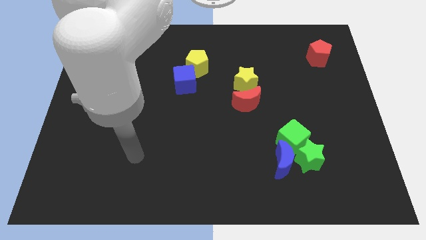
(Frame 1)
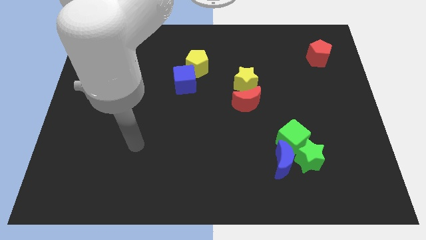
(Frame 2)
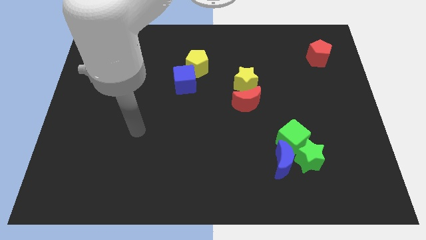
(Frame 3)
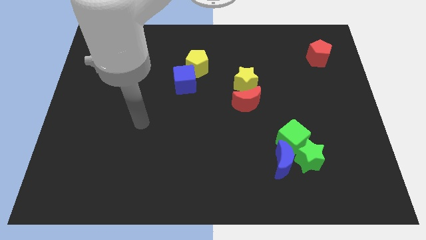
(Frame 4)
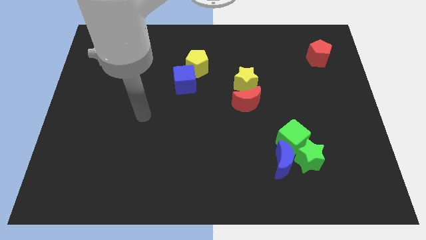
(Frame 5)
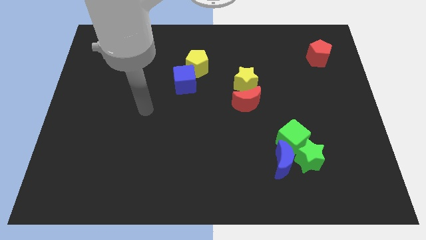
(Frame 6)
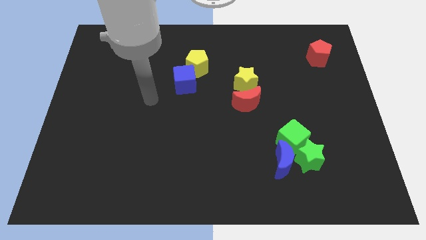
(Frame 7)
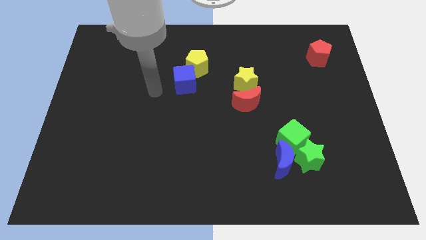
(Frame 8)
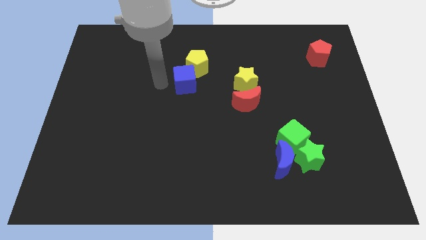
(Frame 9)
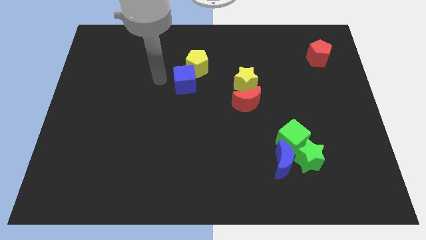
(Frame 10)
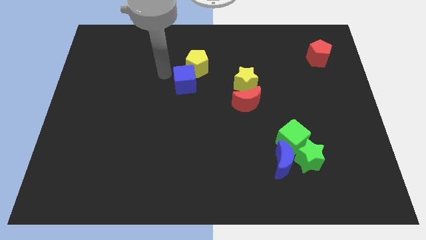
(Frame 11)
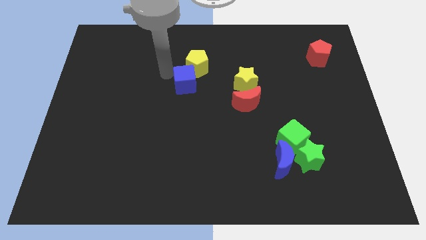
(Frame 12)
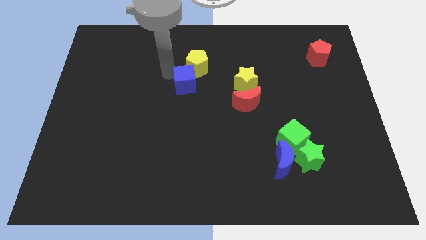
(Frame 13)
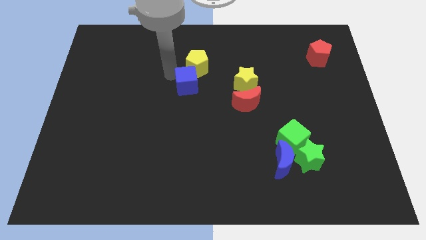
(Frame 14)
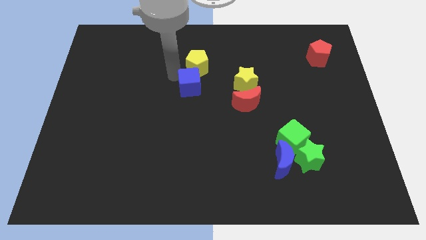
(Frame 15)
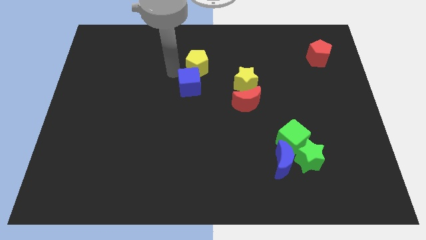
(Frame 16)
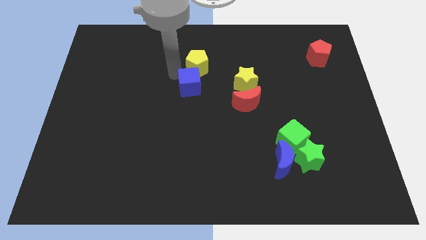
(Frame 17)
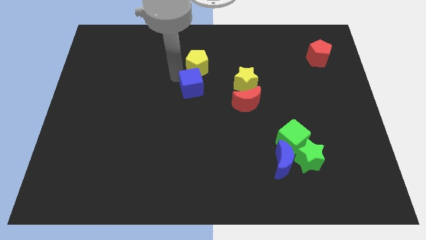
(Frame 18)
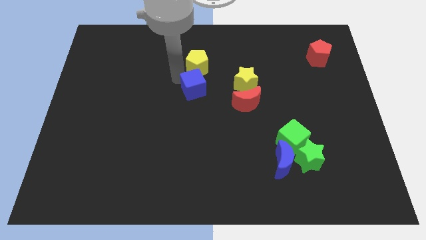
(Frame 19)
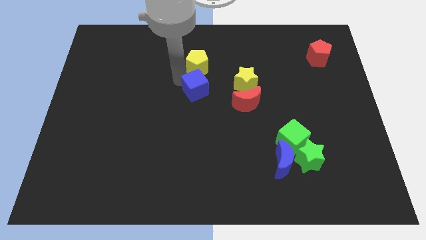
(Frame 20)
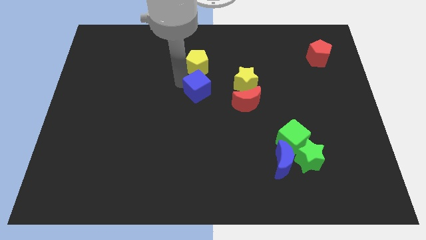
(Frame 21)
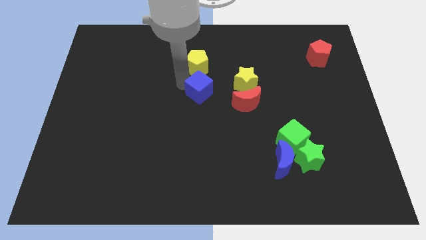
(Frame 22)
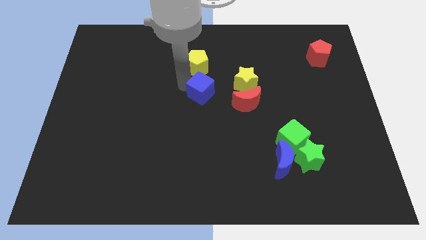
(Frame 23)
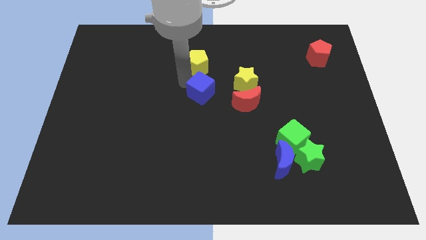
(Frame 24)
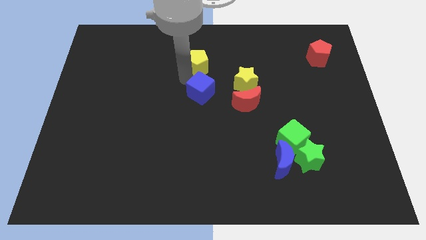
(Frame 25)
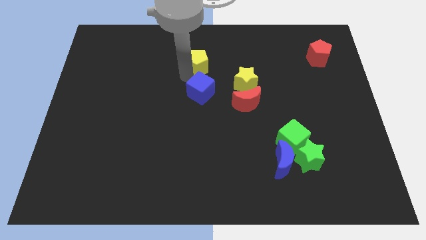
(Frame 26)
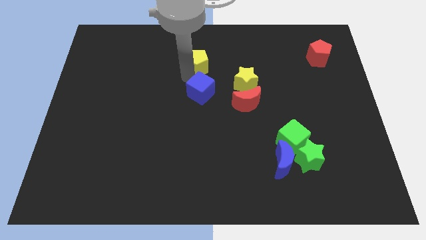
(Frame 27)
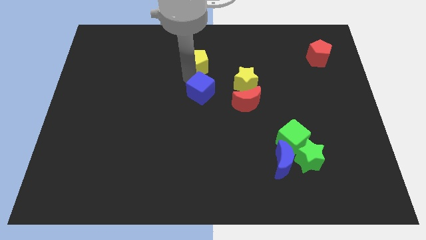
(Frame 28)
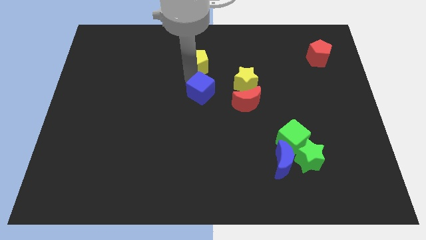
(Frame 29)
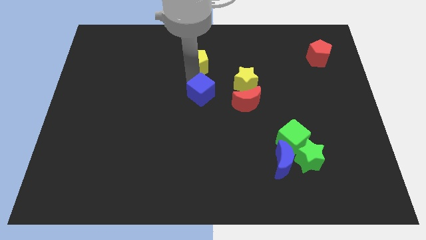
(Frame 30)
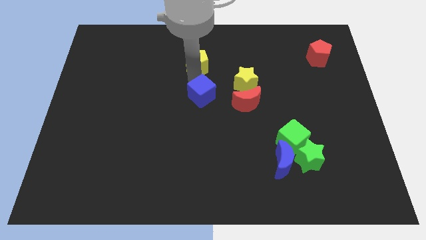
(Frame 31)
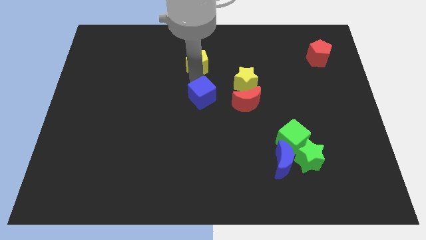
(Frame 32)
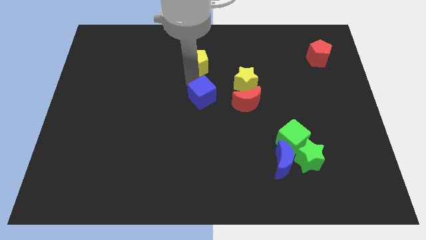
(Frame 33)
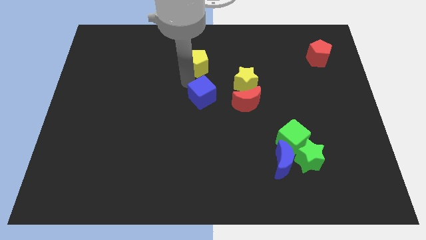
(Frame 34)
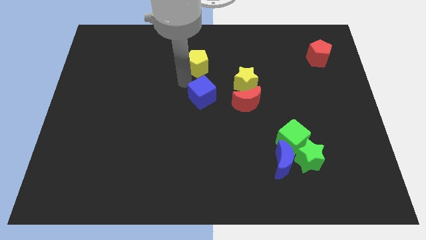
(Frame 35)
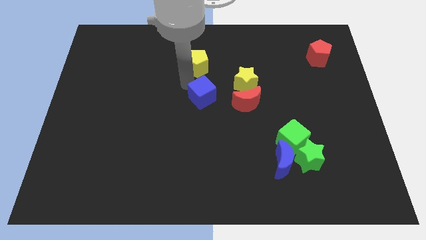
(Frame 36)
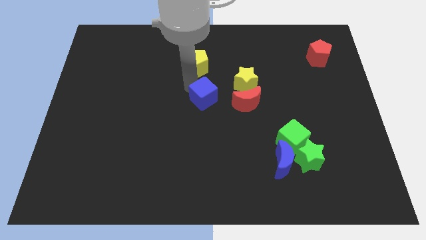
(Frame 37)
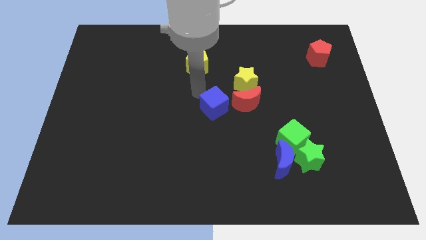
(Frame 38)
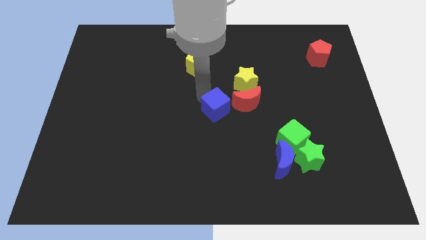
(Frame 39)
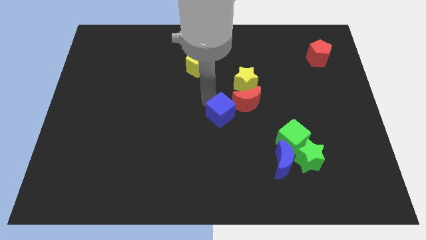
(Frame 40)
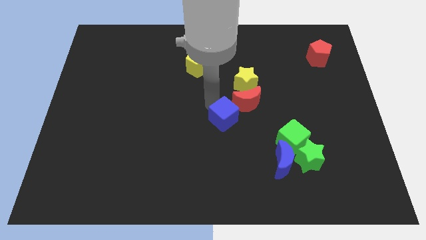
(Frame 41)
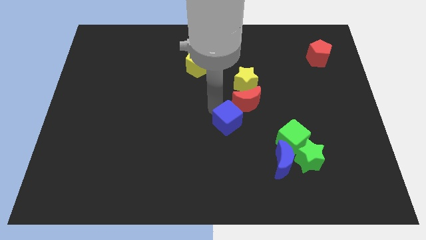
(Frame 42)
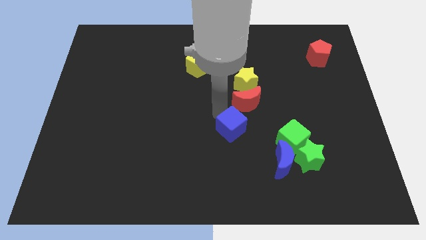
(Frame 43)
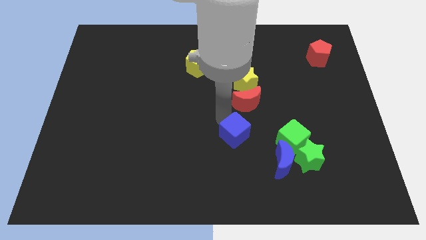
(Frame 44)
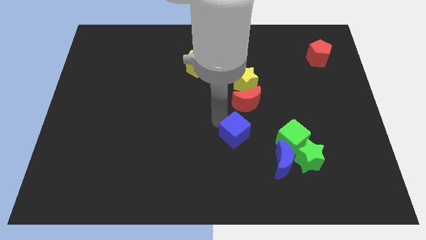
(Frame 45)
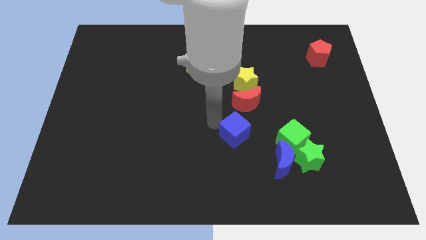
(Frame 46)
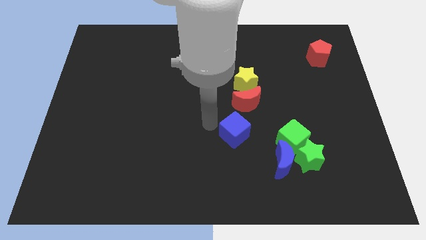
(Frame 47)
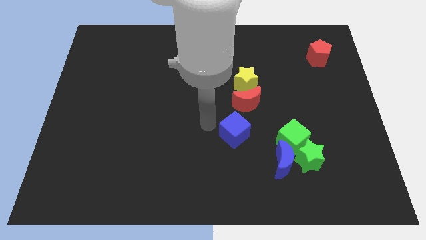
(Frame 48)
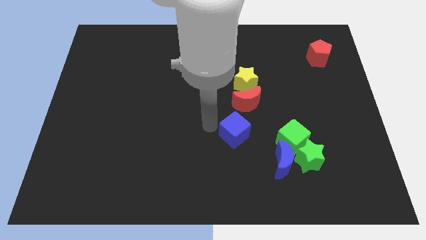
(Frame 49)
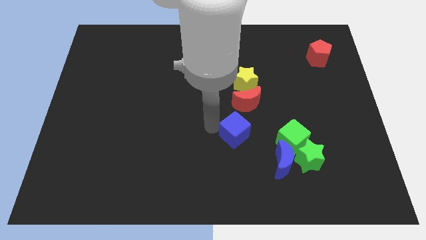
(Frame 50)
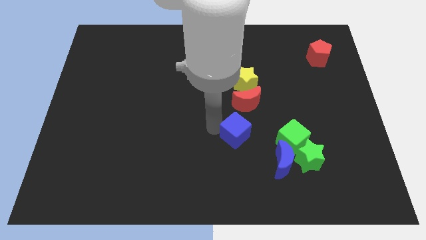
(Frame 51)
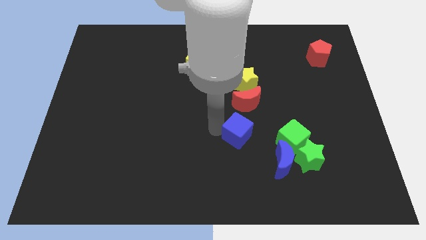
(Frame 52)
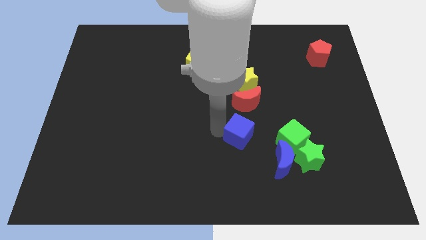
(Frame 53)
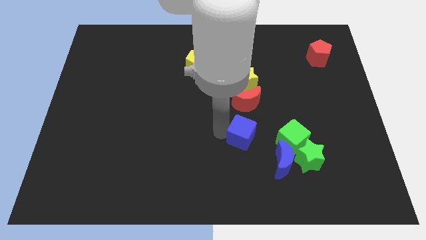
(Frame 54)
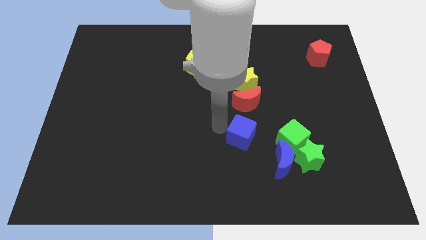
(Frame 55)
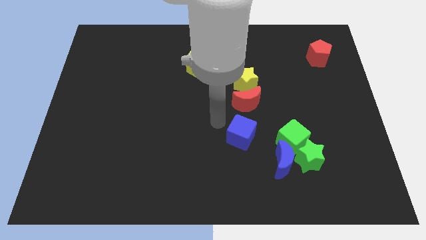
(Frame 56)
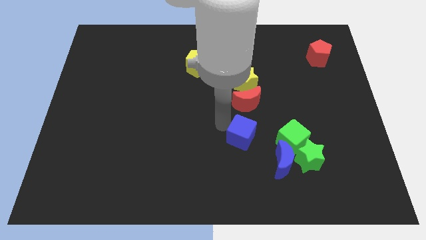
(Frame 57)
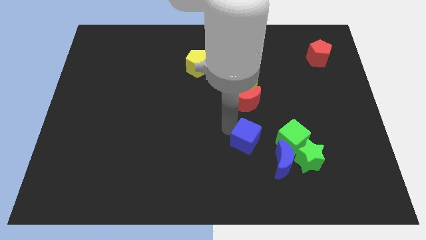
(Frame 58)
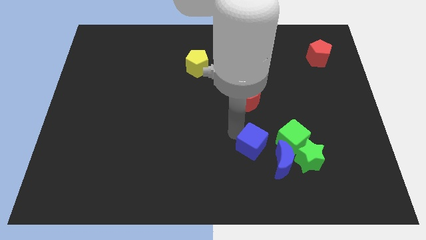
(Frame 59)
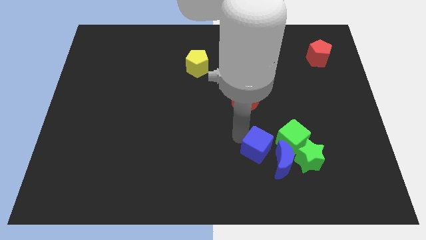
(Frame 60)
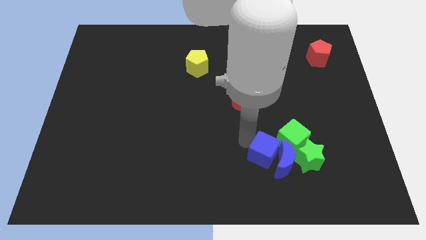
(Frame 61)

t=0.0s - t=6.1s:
push the blue cube towards the blue moon
